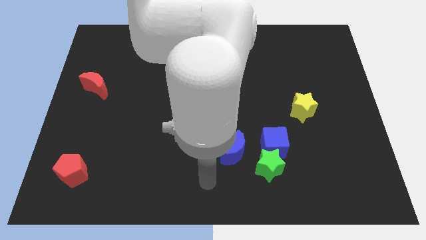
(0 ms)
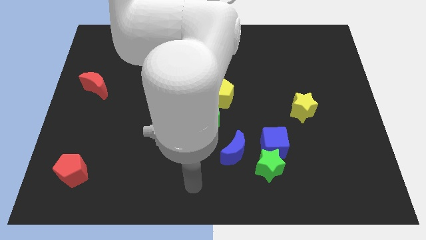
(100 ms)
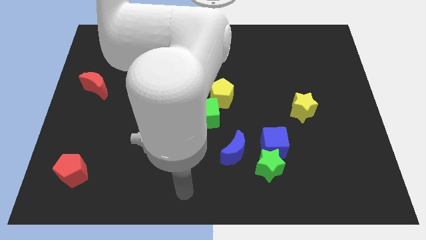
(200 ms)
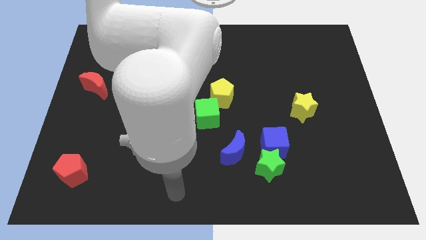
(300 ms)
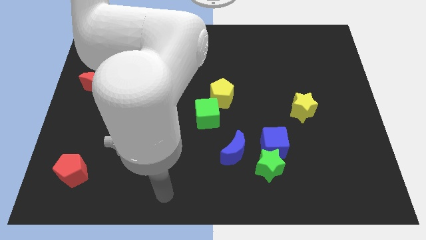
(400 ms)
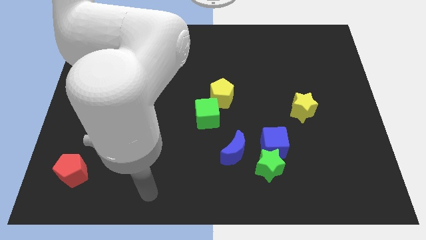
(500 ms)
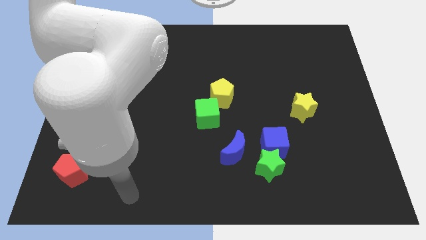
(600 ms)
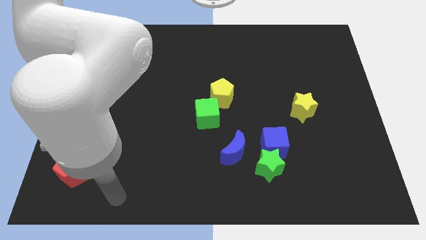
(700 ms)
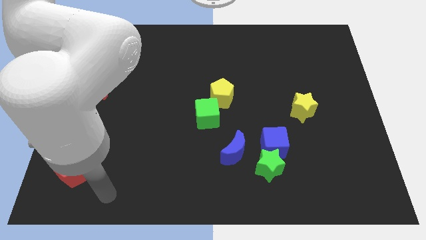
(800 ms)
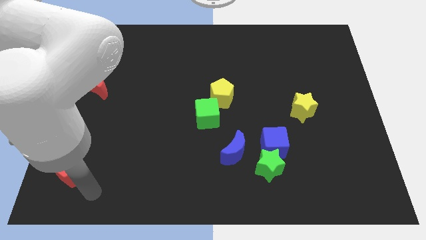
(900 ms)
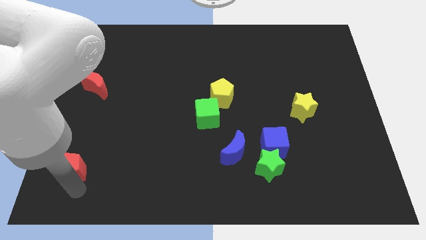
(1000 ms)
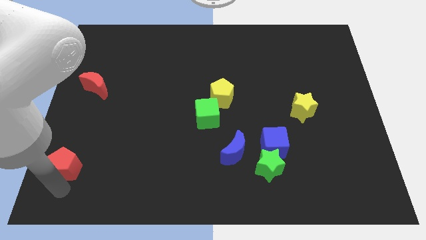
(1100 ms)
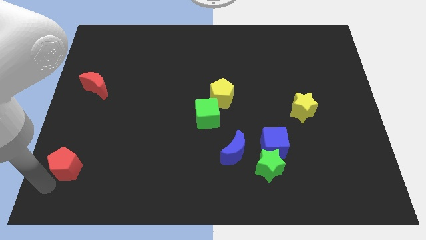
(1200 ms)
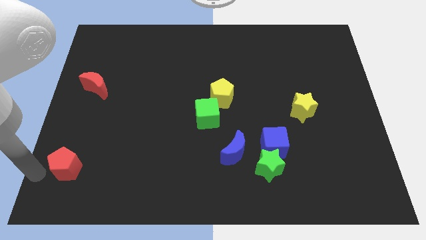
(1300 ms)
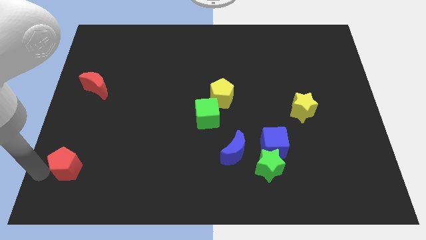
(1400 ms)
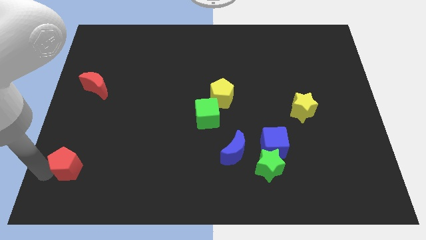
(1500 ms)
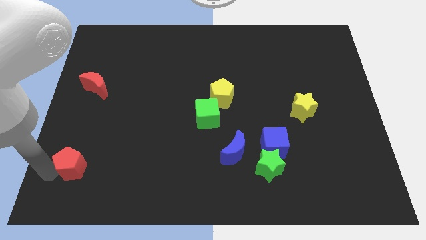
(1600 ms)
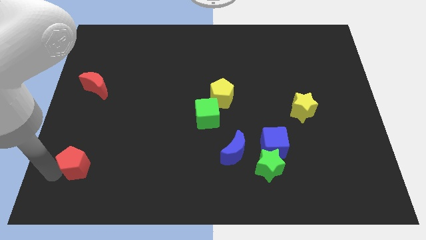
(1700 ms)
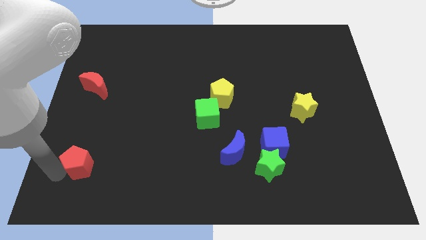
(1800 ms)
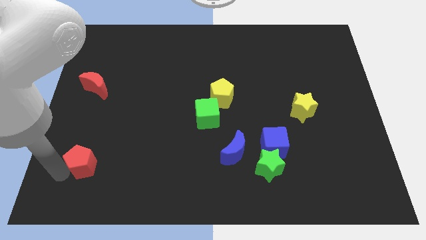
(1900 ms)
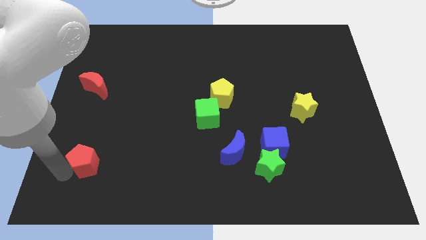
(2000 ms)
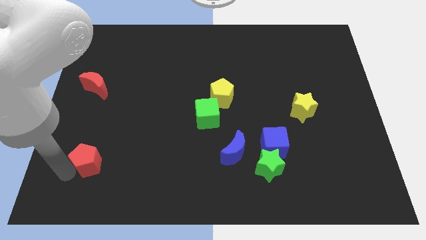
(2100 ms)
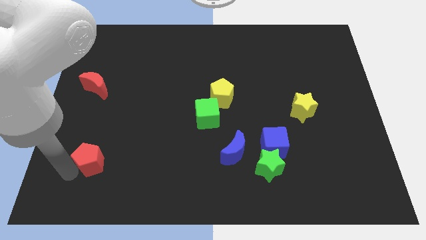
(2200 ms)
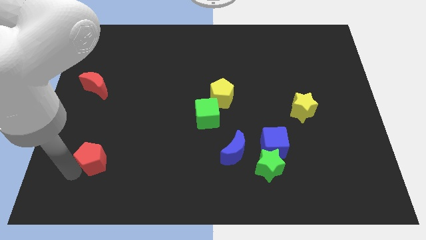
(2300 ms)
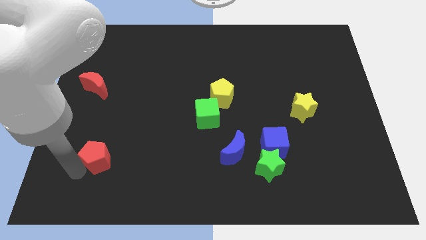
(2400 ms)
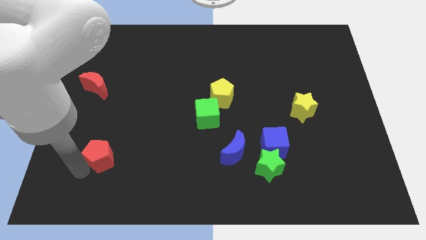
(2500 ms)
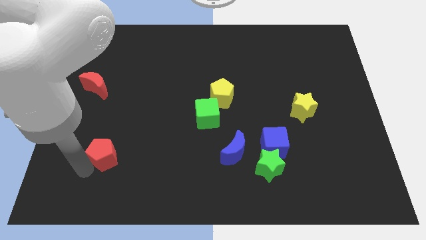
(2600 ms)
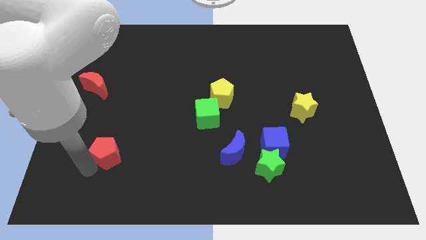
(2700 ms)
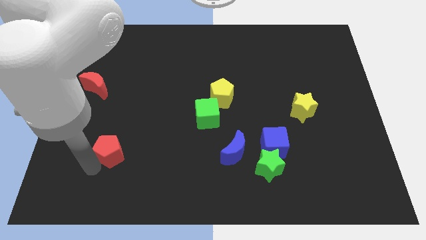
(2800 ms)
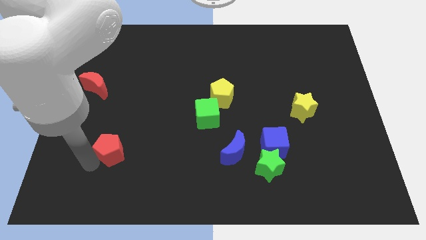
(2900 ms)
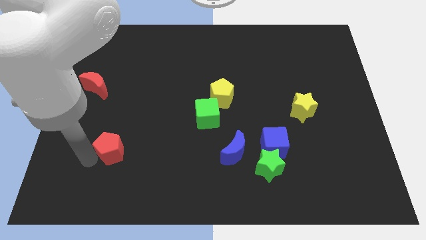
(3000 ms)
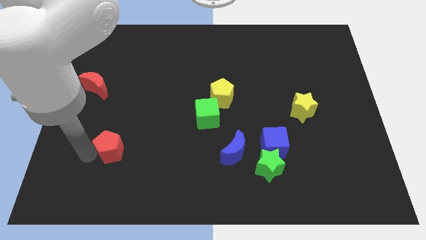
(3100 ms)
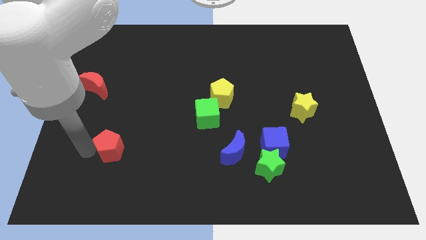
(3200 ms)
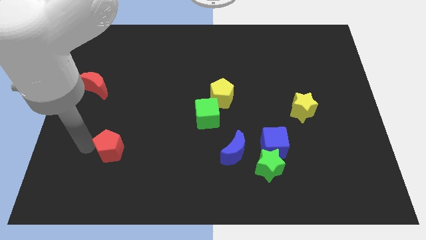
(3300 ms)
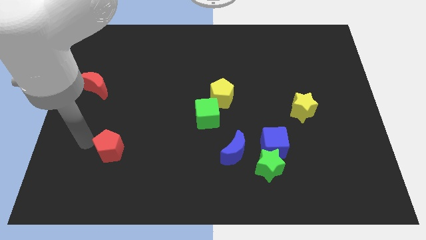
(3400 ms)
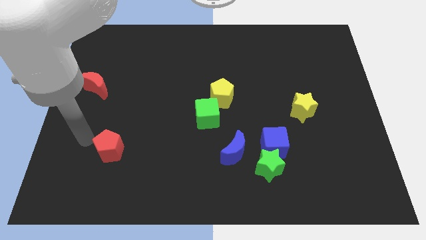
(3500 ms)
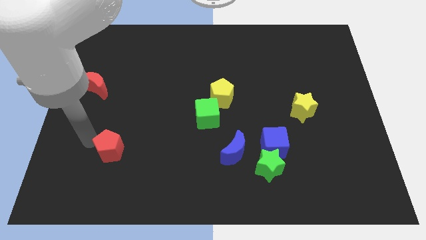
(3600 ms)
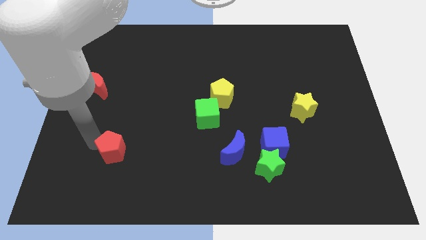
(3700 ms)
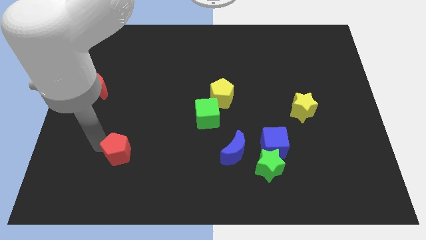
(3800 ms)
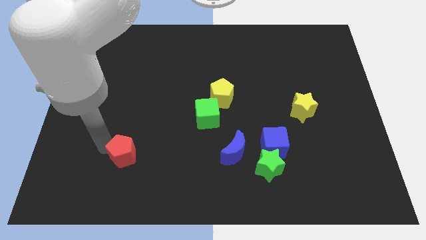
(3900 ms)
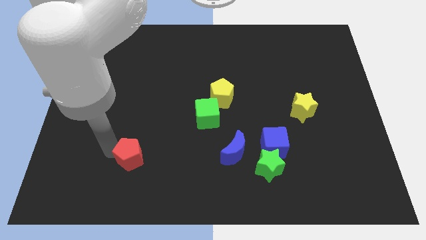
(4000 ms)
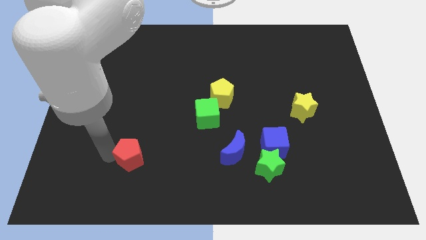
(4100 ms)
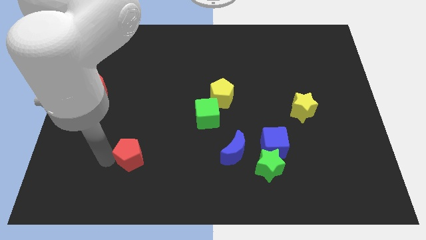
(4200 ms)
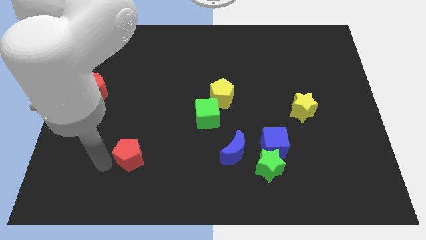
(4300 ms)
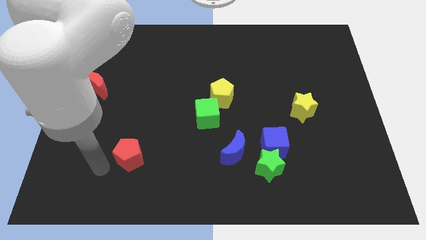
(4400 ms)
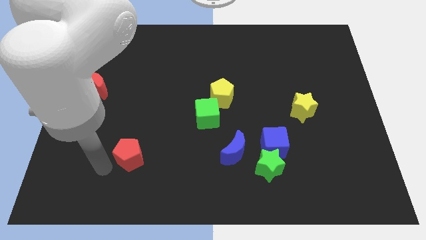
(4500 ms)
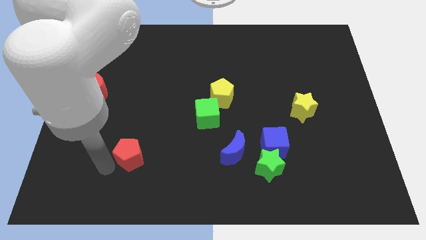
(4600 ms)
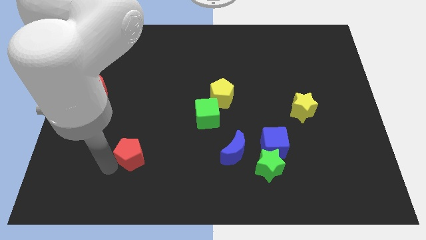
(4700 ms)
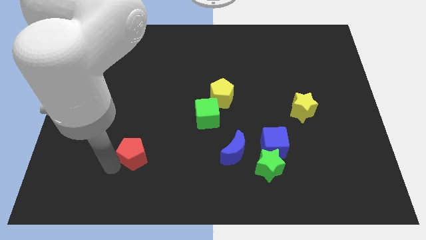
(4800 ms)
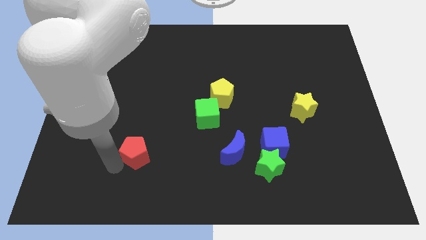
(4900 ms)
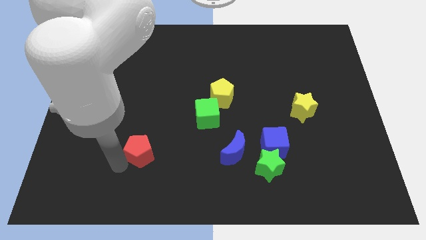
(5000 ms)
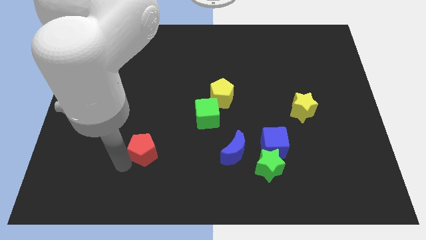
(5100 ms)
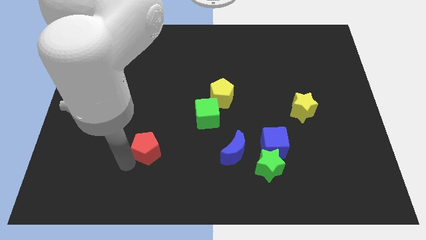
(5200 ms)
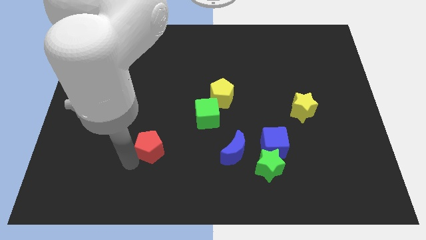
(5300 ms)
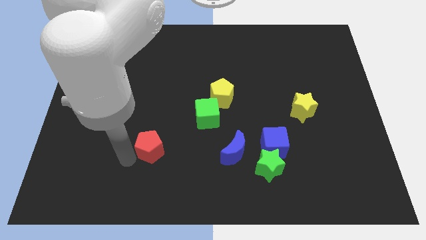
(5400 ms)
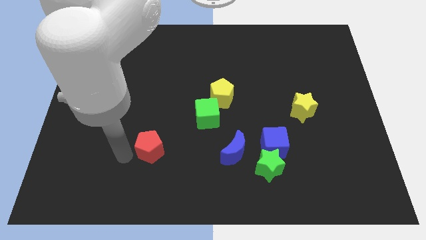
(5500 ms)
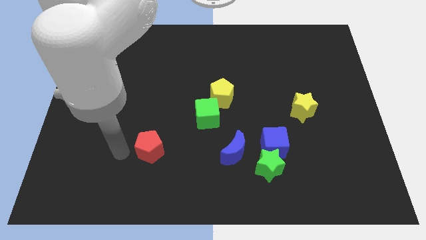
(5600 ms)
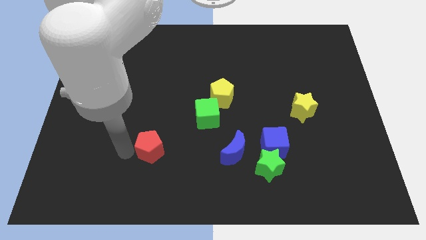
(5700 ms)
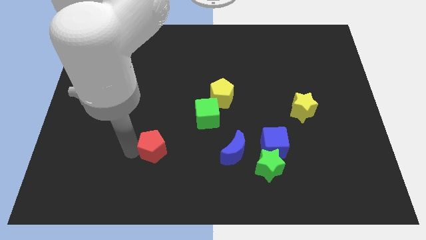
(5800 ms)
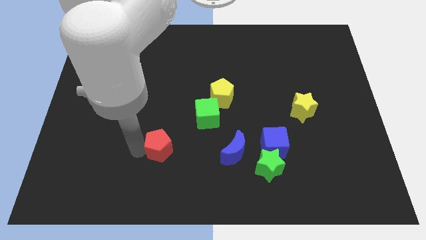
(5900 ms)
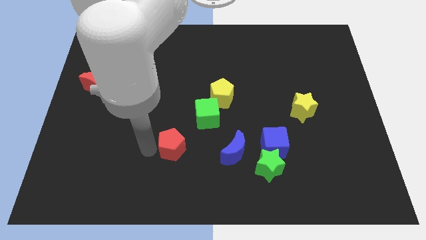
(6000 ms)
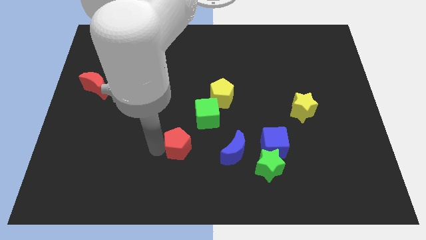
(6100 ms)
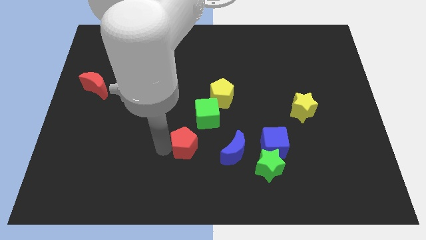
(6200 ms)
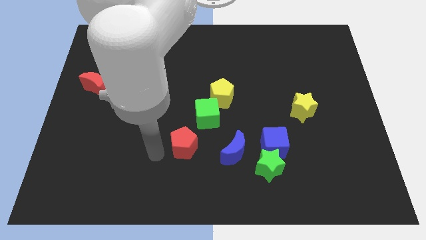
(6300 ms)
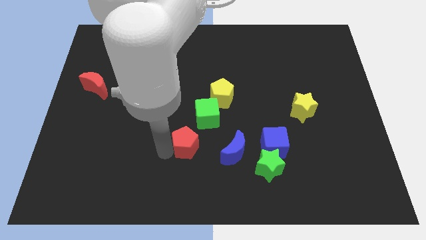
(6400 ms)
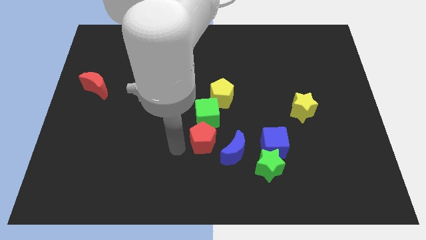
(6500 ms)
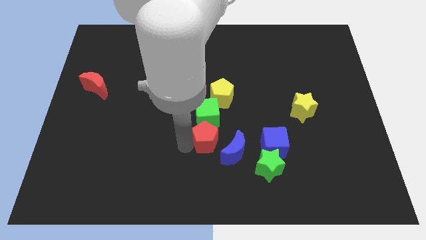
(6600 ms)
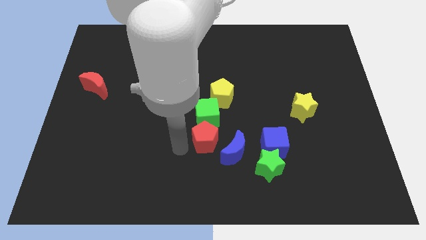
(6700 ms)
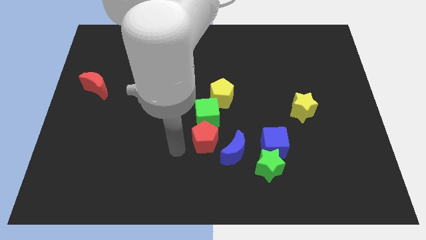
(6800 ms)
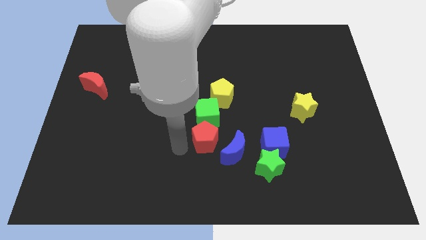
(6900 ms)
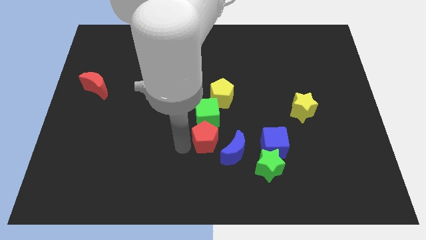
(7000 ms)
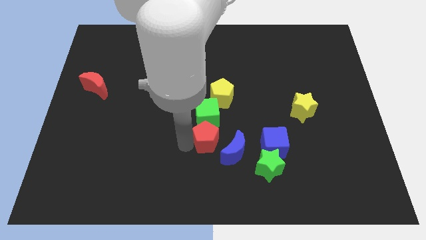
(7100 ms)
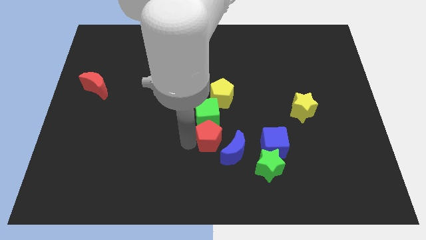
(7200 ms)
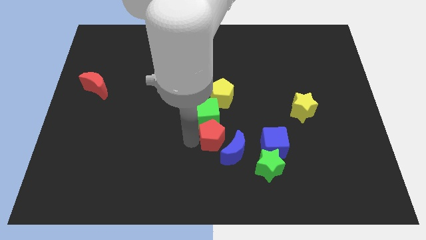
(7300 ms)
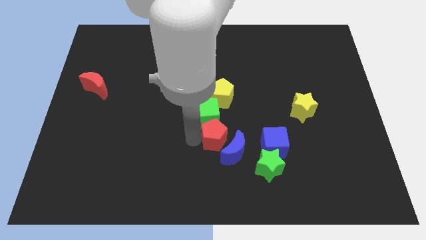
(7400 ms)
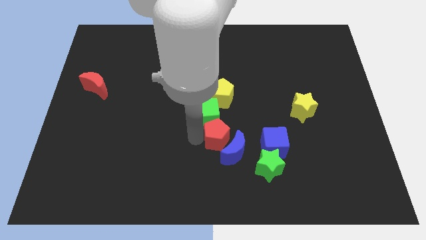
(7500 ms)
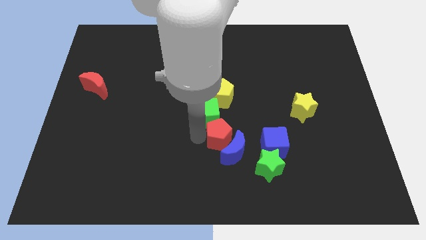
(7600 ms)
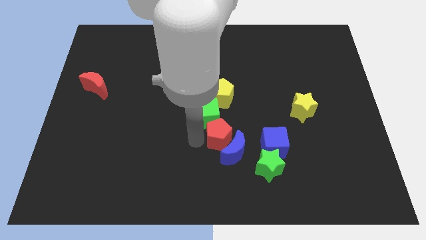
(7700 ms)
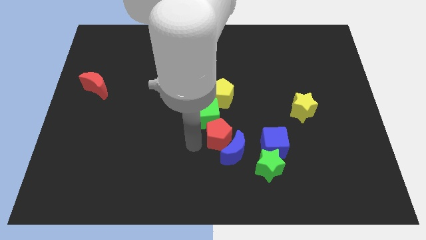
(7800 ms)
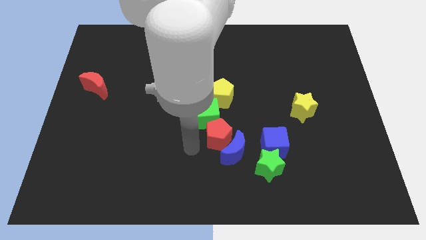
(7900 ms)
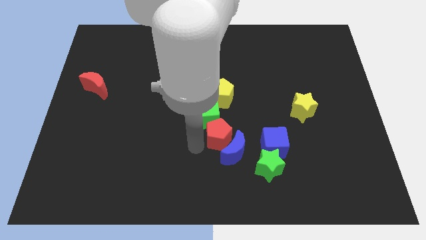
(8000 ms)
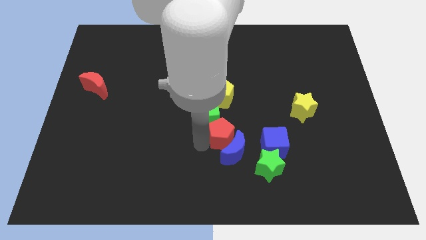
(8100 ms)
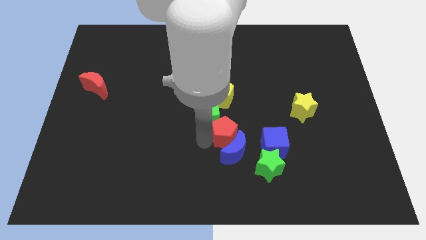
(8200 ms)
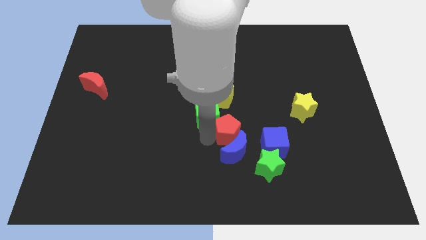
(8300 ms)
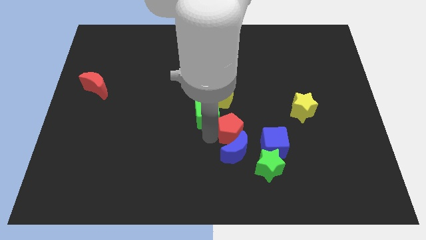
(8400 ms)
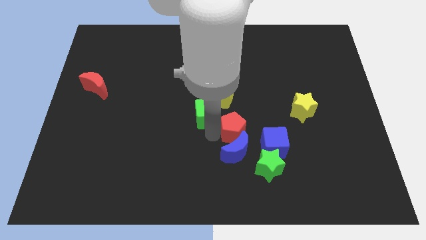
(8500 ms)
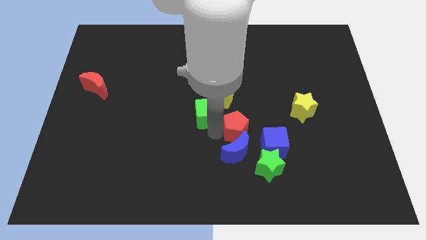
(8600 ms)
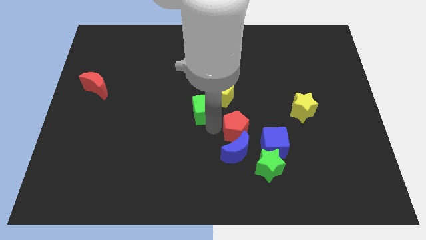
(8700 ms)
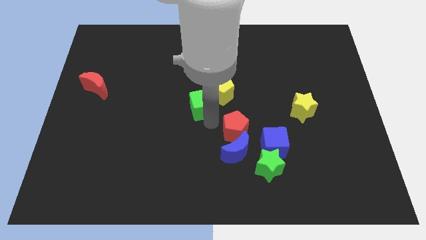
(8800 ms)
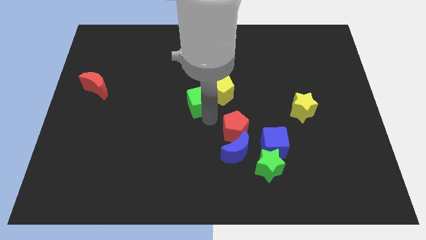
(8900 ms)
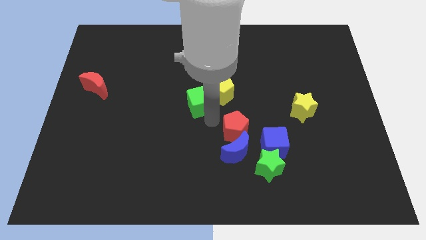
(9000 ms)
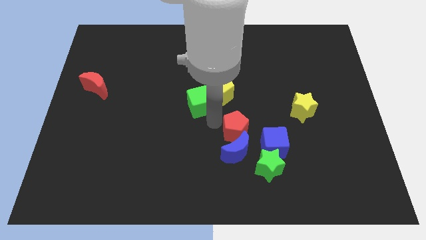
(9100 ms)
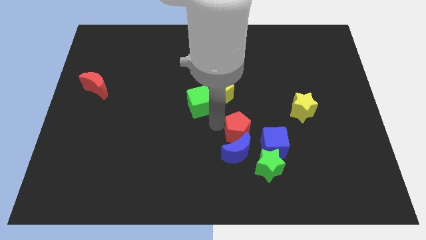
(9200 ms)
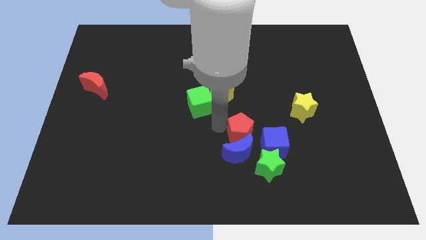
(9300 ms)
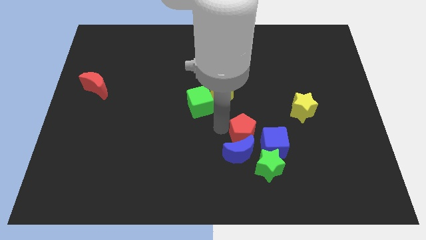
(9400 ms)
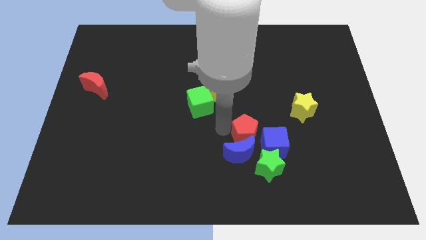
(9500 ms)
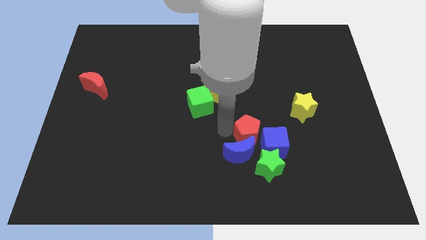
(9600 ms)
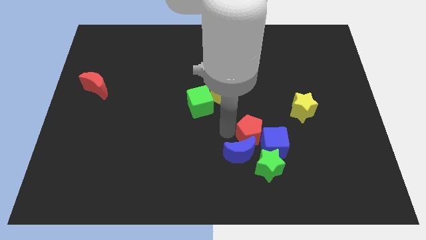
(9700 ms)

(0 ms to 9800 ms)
put the red pentagon towards the blue cube
